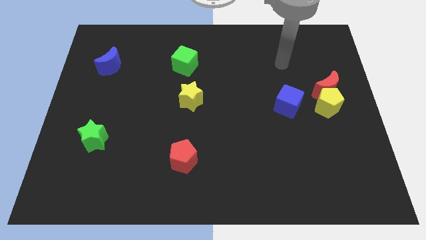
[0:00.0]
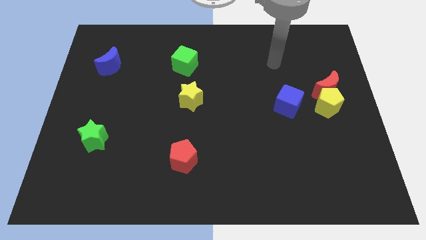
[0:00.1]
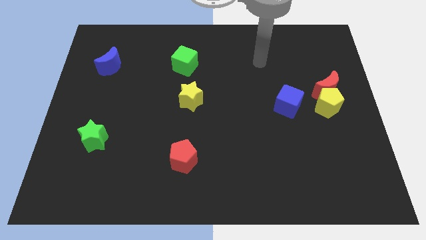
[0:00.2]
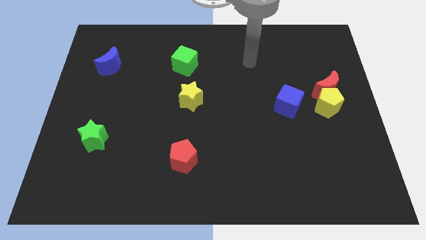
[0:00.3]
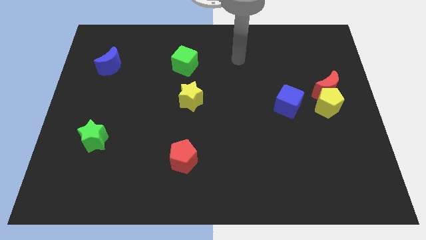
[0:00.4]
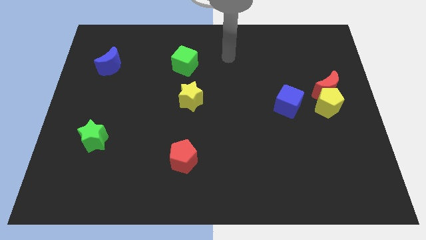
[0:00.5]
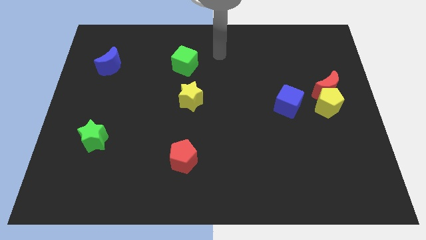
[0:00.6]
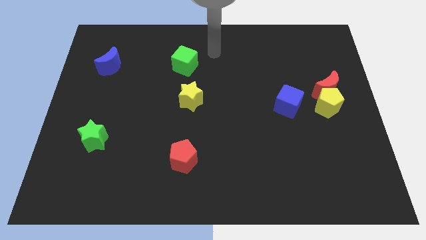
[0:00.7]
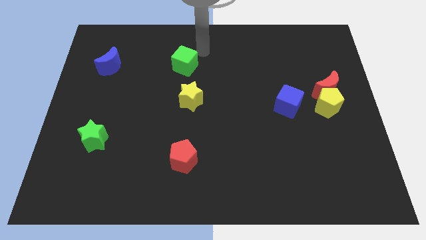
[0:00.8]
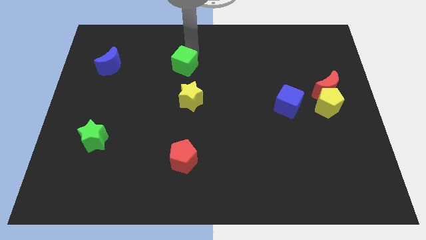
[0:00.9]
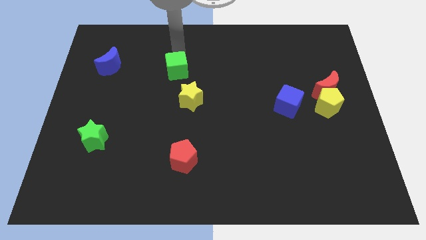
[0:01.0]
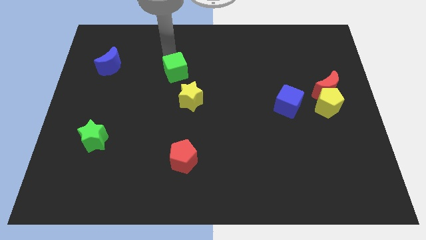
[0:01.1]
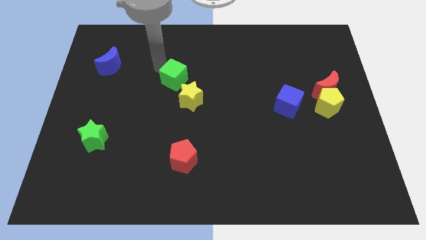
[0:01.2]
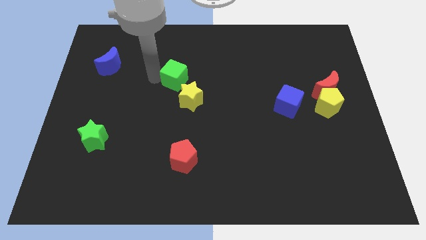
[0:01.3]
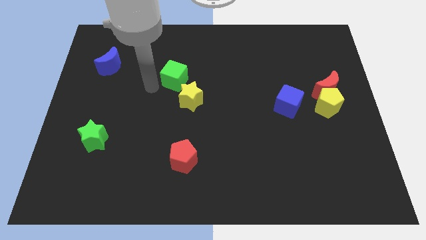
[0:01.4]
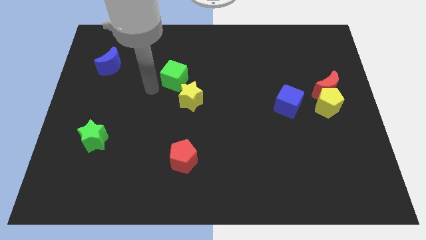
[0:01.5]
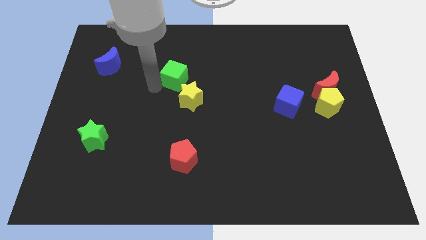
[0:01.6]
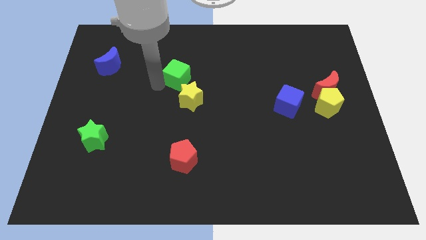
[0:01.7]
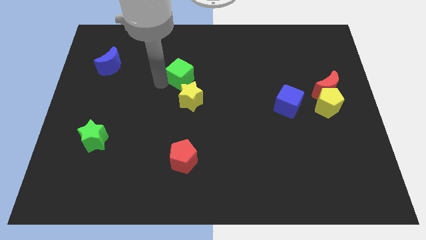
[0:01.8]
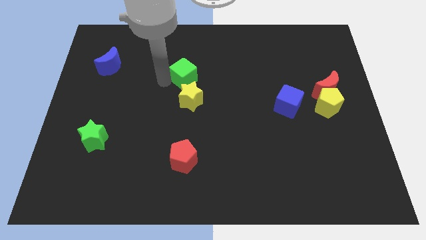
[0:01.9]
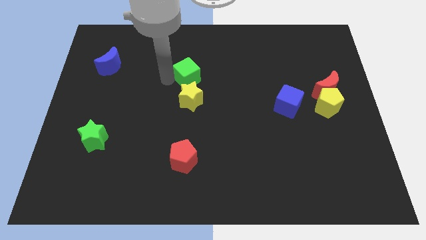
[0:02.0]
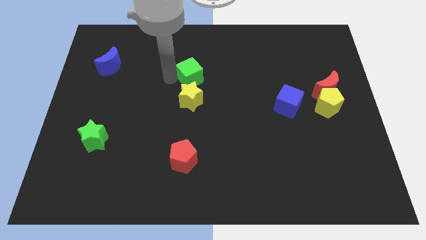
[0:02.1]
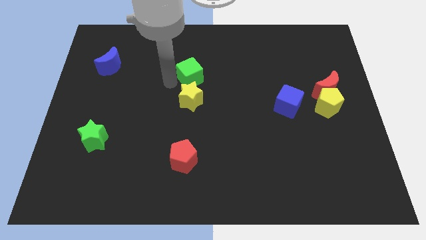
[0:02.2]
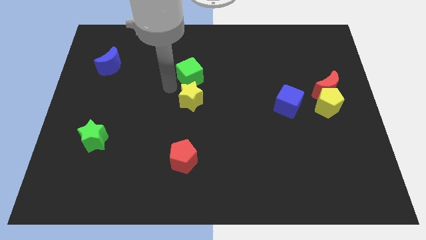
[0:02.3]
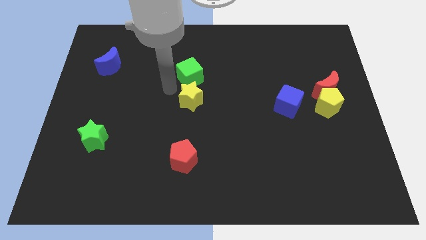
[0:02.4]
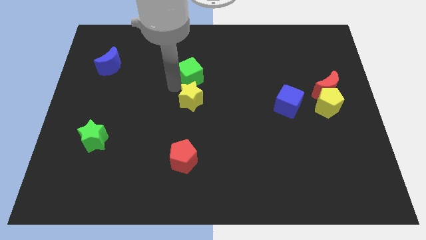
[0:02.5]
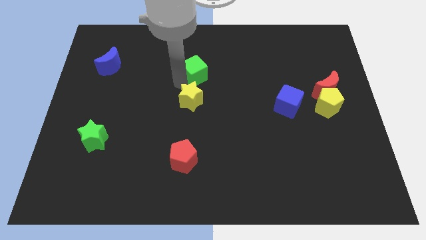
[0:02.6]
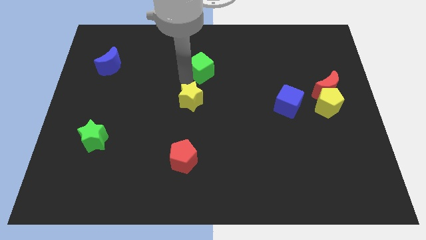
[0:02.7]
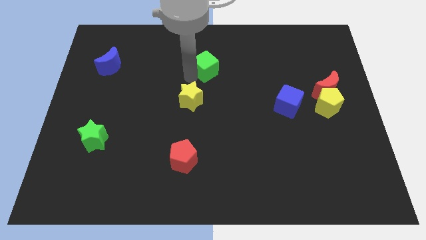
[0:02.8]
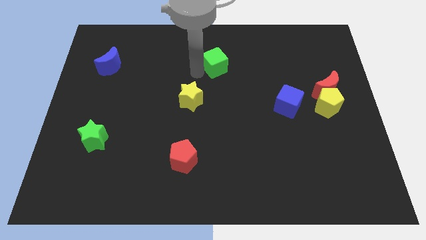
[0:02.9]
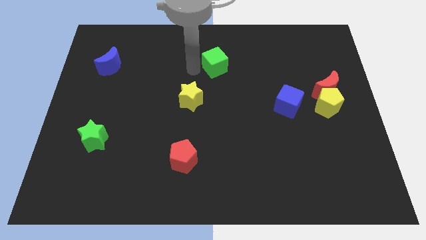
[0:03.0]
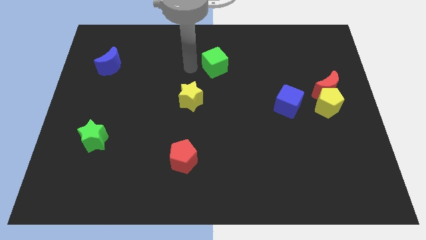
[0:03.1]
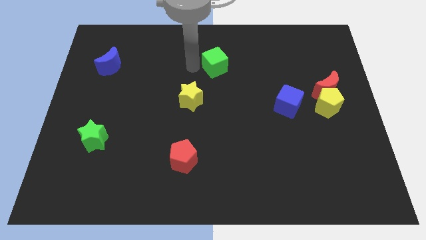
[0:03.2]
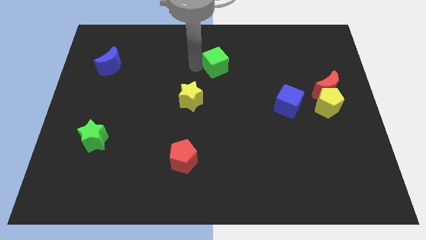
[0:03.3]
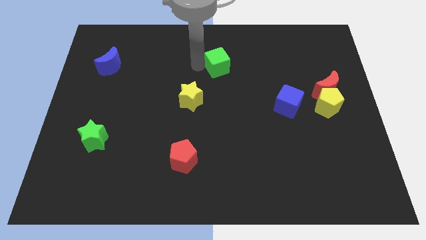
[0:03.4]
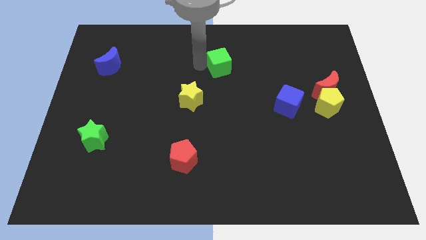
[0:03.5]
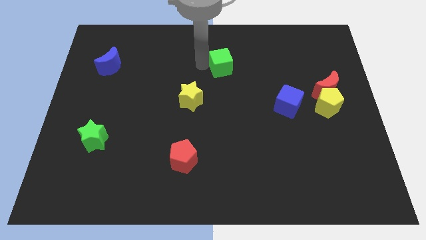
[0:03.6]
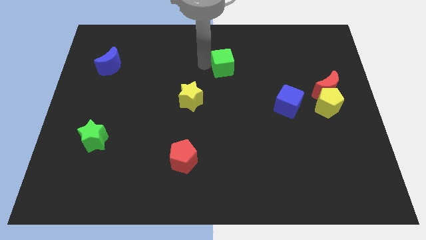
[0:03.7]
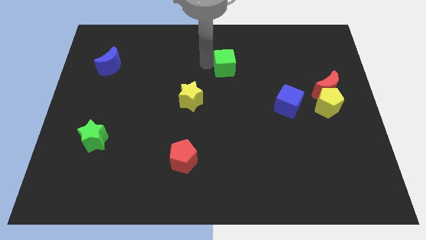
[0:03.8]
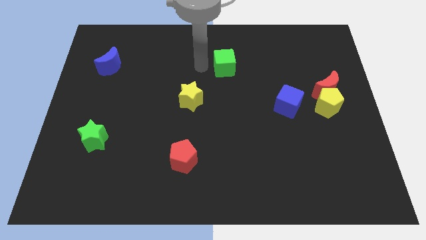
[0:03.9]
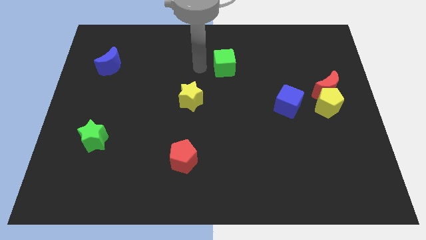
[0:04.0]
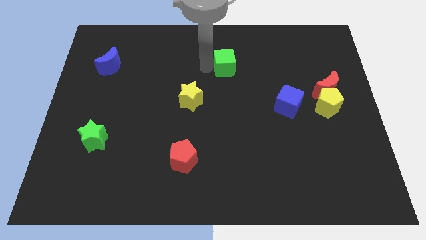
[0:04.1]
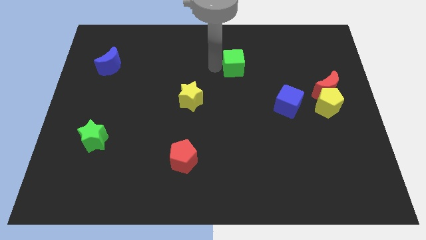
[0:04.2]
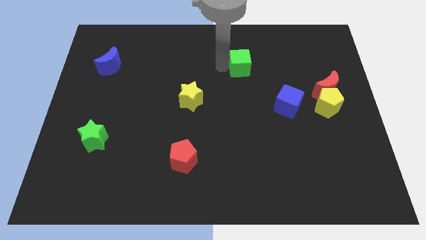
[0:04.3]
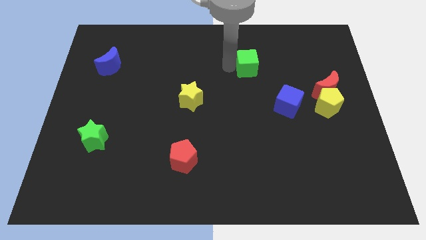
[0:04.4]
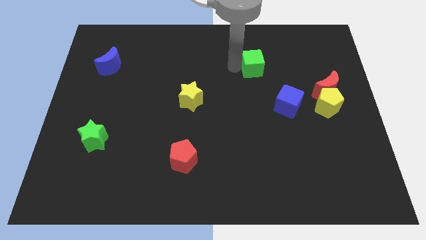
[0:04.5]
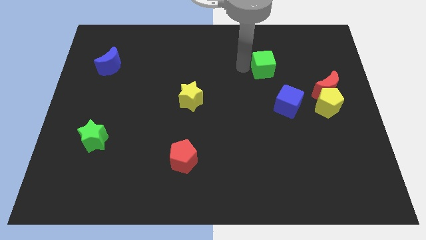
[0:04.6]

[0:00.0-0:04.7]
move the green cube to the right

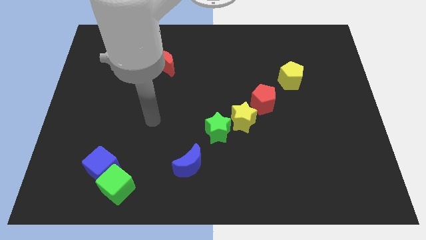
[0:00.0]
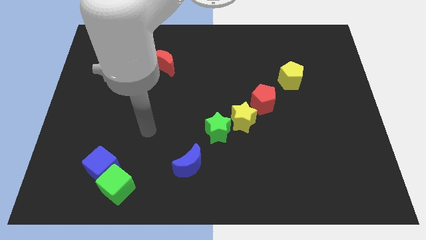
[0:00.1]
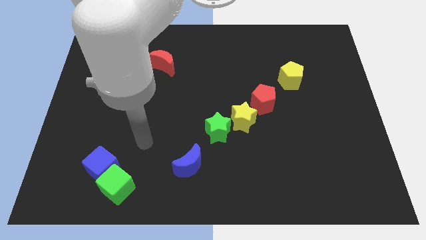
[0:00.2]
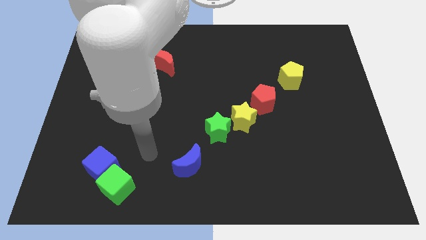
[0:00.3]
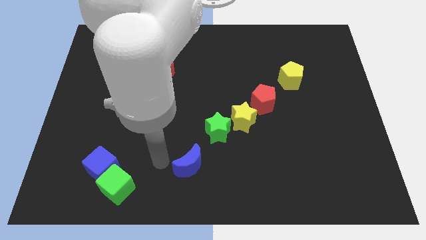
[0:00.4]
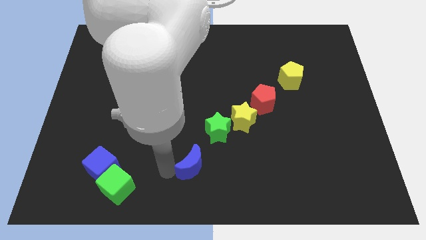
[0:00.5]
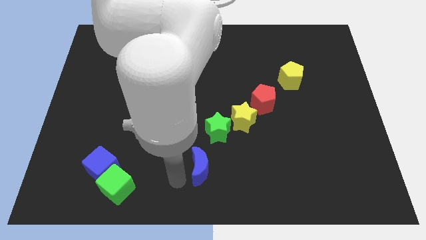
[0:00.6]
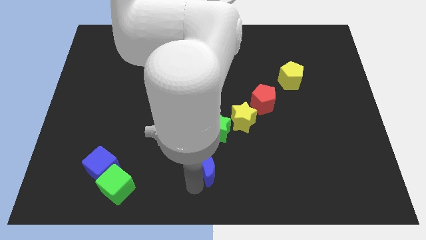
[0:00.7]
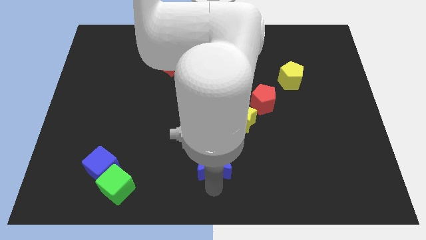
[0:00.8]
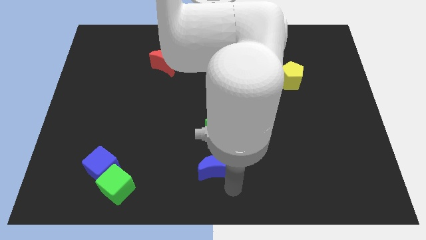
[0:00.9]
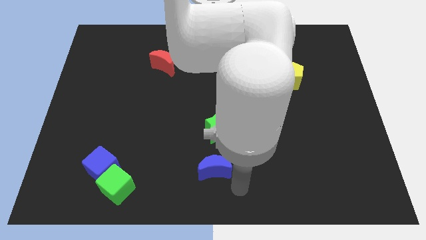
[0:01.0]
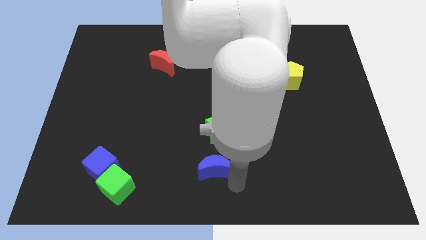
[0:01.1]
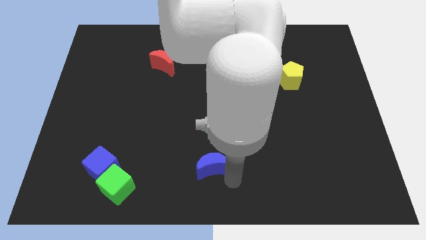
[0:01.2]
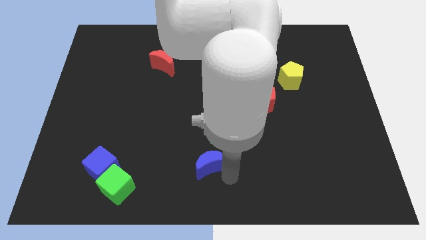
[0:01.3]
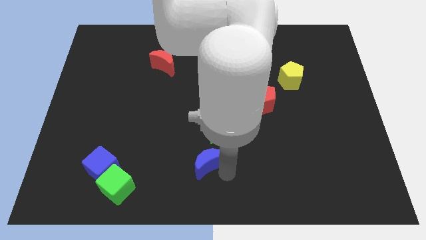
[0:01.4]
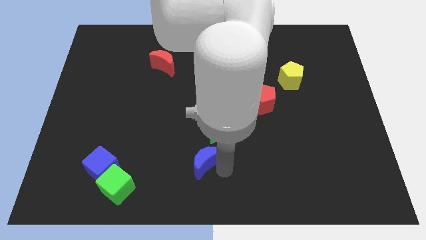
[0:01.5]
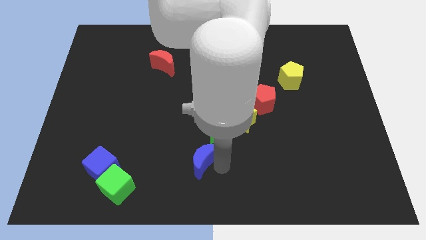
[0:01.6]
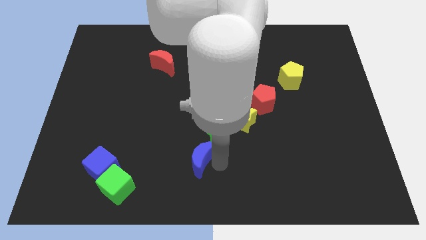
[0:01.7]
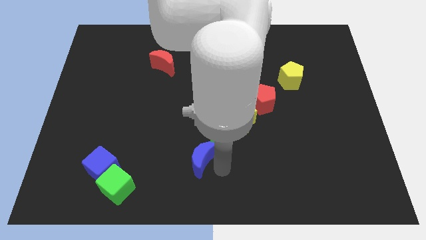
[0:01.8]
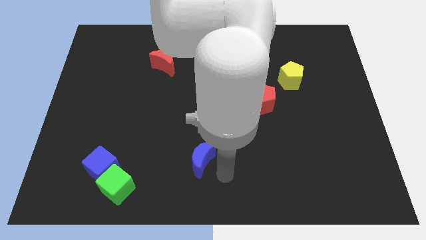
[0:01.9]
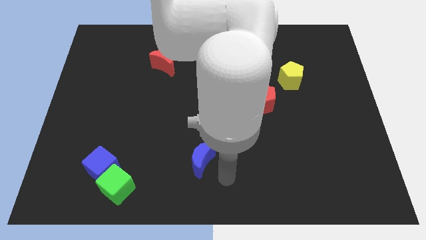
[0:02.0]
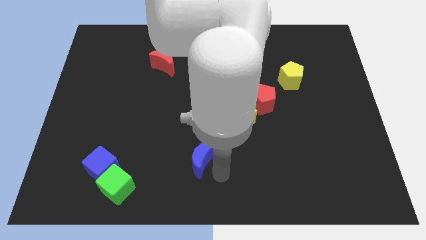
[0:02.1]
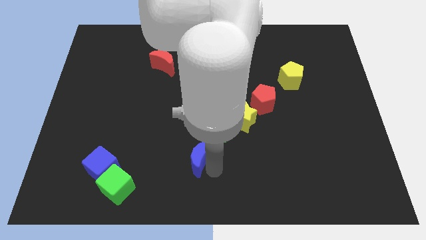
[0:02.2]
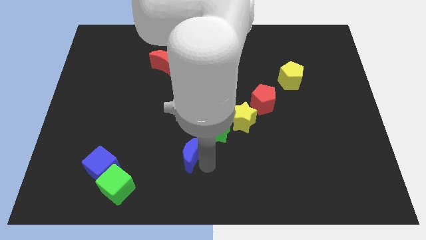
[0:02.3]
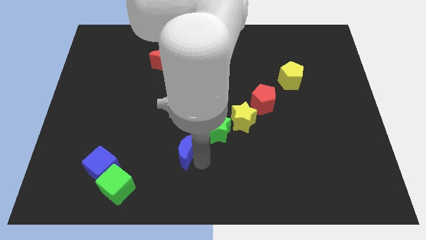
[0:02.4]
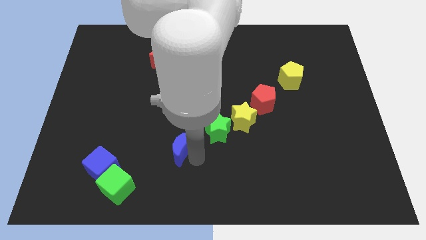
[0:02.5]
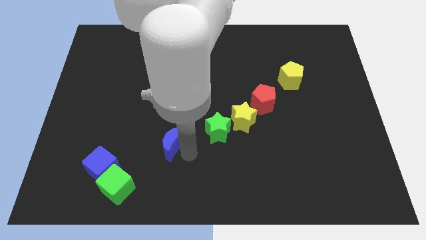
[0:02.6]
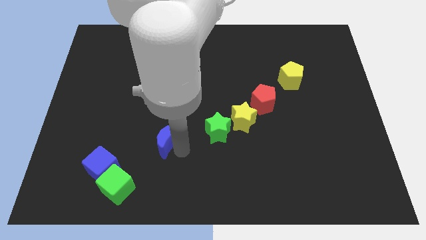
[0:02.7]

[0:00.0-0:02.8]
slightly push the blue moon upwards and left

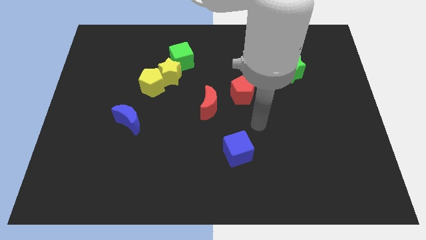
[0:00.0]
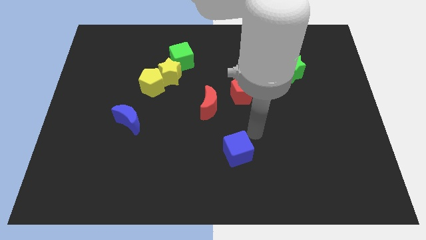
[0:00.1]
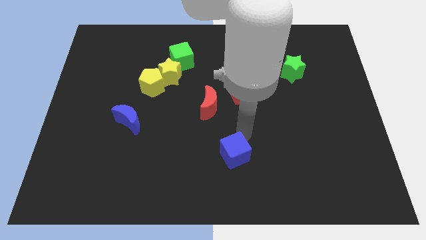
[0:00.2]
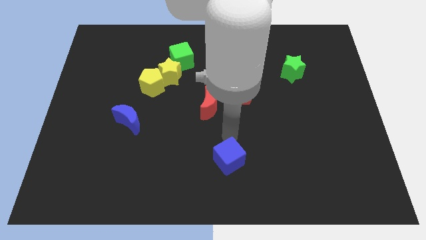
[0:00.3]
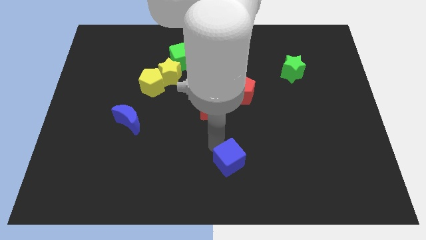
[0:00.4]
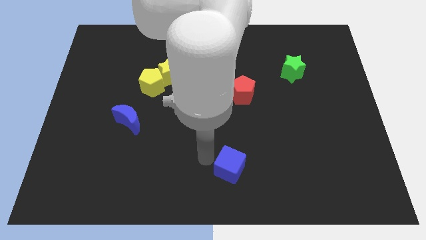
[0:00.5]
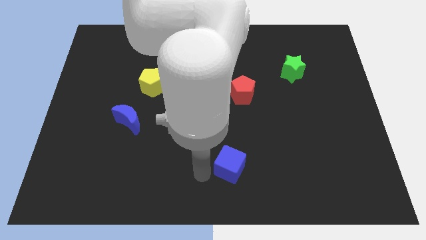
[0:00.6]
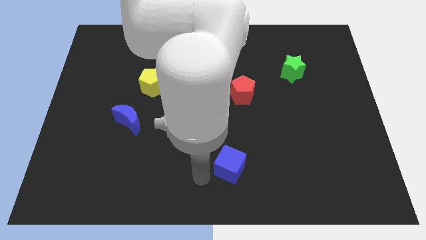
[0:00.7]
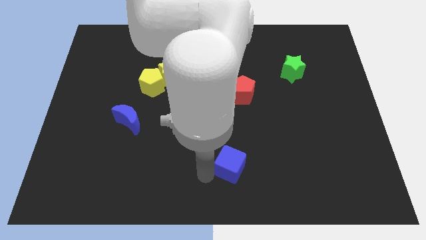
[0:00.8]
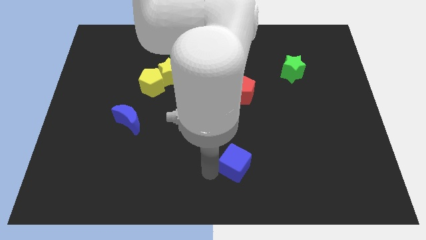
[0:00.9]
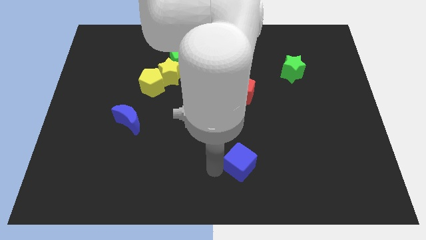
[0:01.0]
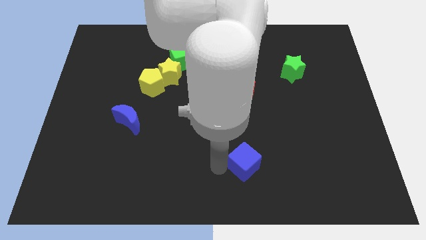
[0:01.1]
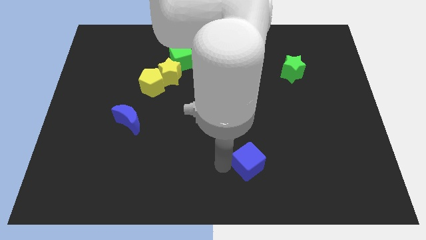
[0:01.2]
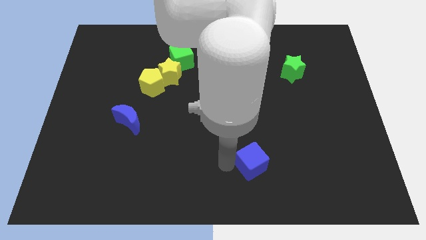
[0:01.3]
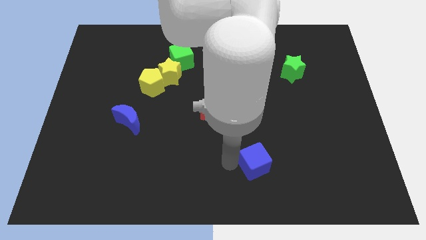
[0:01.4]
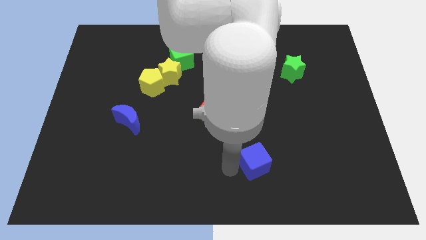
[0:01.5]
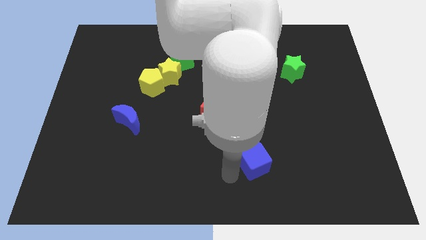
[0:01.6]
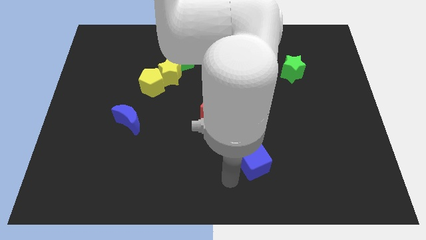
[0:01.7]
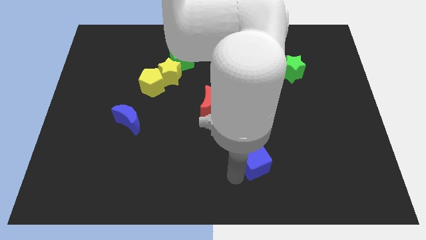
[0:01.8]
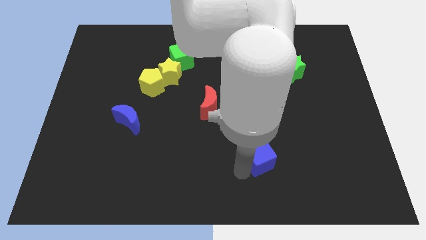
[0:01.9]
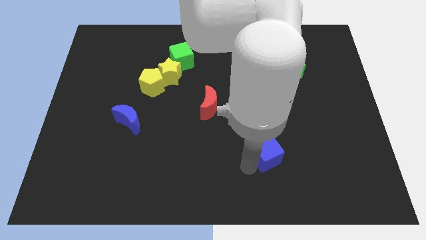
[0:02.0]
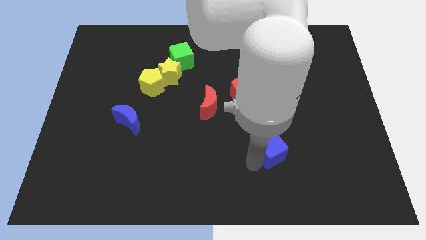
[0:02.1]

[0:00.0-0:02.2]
move the blue cube right a little bit
